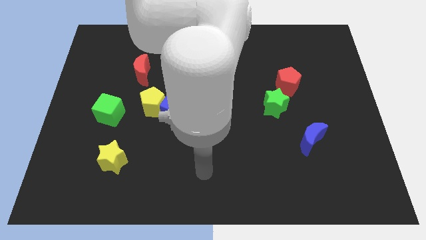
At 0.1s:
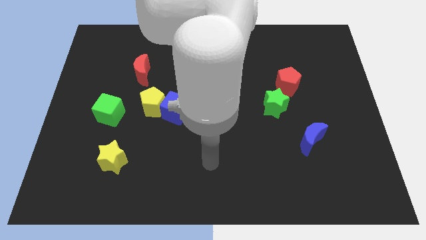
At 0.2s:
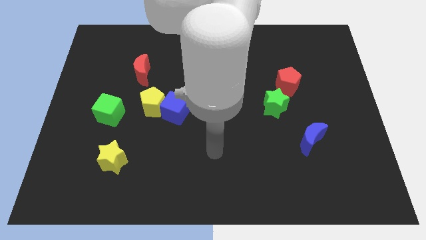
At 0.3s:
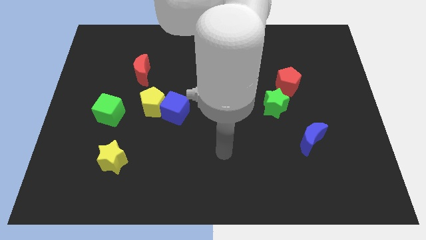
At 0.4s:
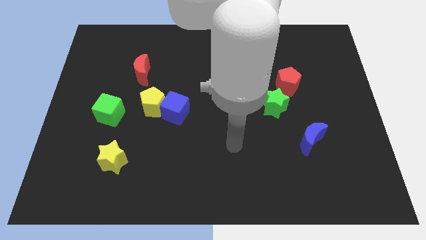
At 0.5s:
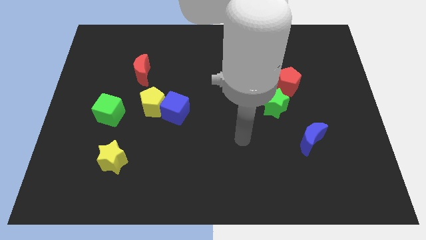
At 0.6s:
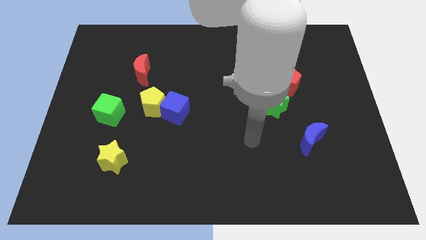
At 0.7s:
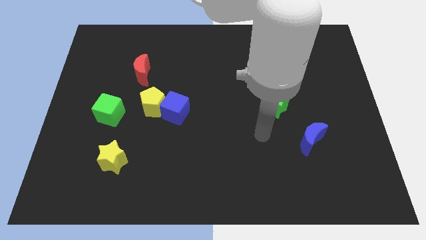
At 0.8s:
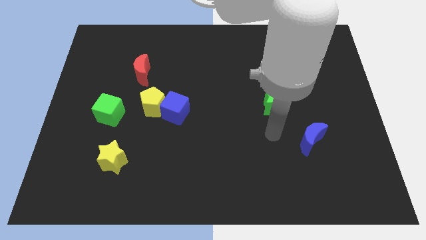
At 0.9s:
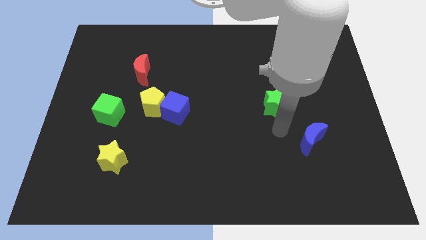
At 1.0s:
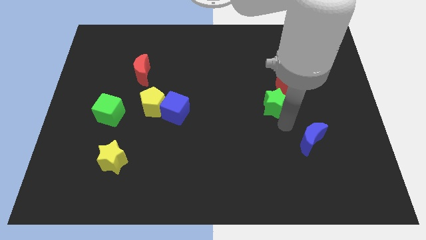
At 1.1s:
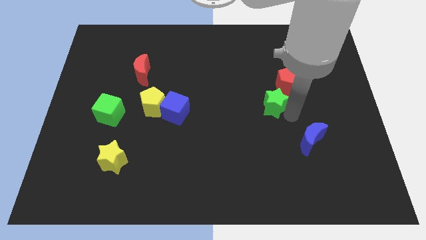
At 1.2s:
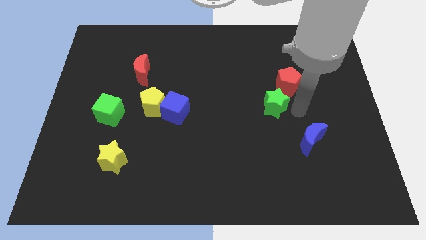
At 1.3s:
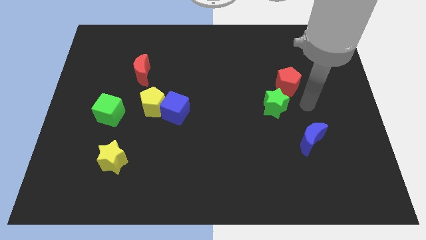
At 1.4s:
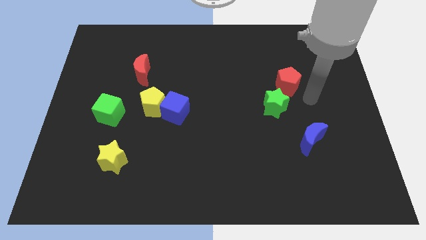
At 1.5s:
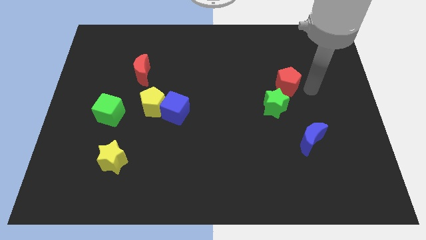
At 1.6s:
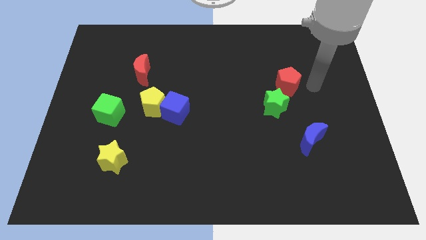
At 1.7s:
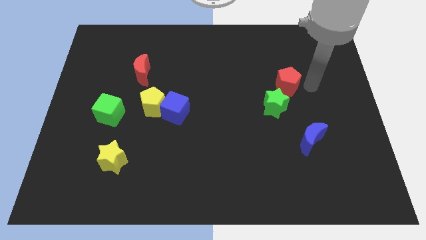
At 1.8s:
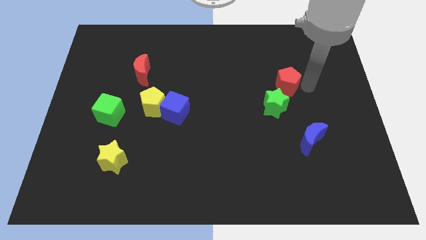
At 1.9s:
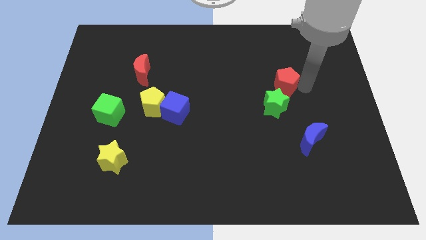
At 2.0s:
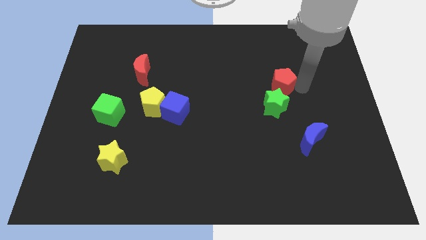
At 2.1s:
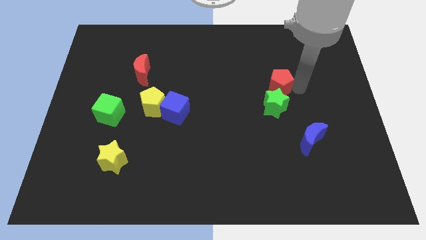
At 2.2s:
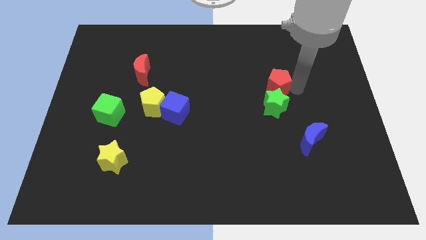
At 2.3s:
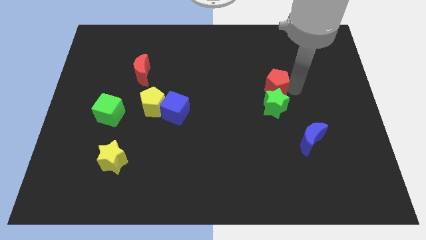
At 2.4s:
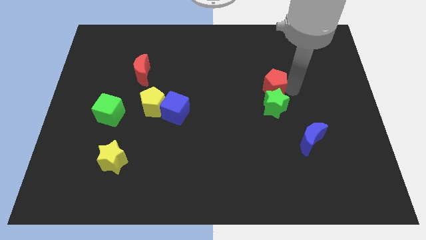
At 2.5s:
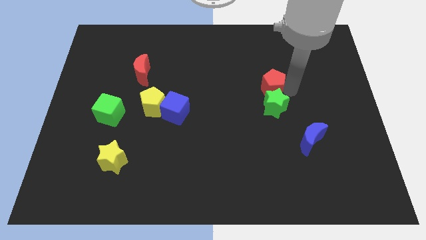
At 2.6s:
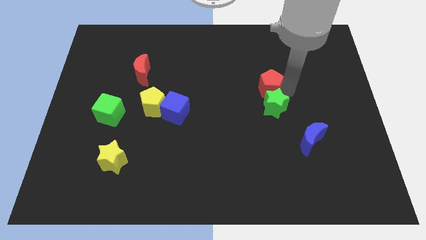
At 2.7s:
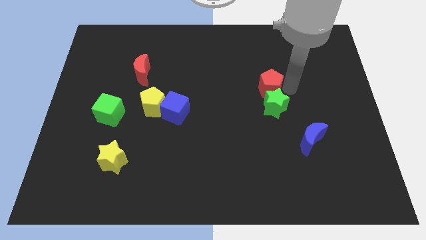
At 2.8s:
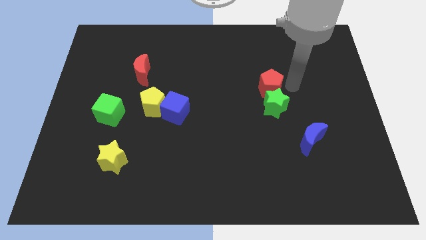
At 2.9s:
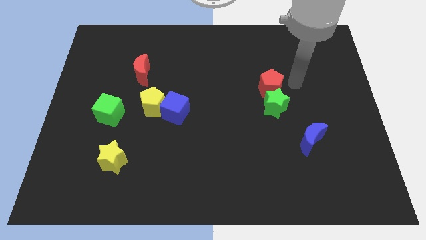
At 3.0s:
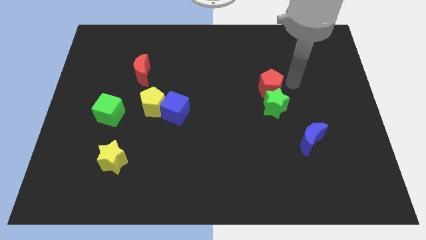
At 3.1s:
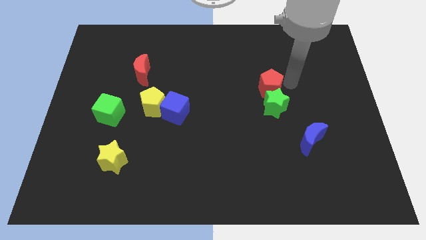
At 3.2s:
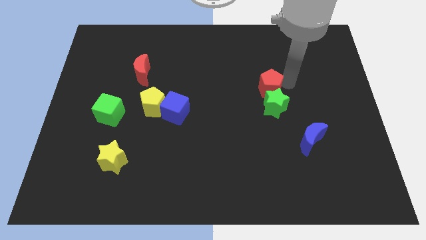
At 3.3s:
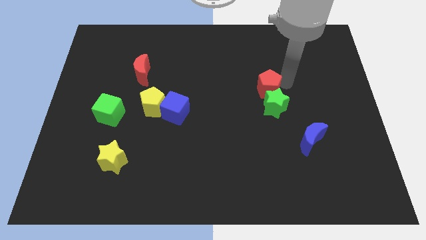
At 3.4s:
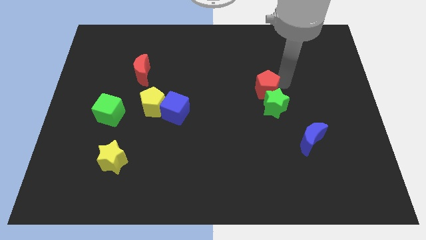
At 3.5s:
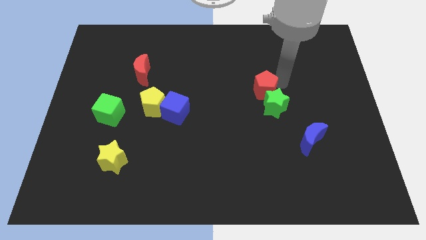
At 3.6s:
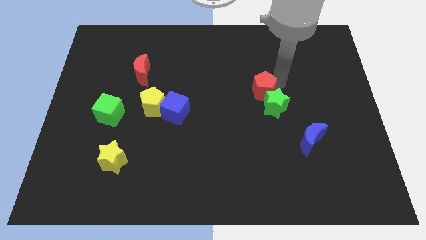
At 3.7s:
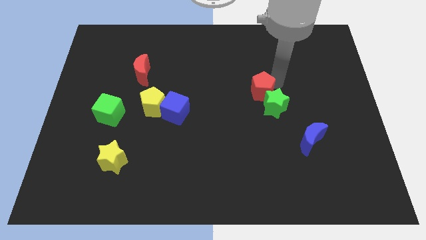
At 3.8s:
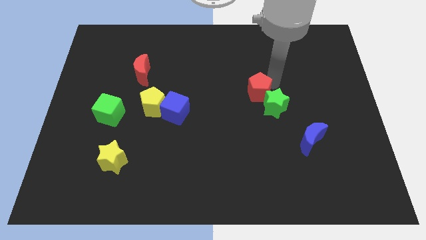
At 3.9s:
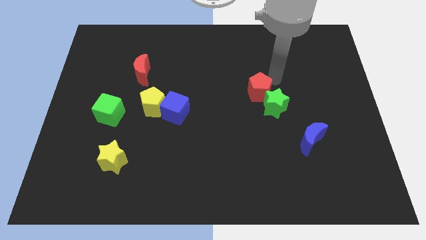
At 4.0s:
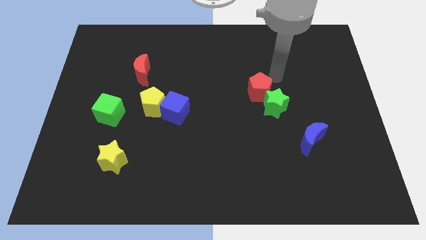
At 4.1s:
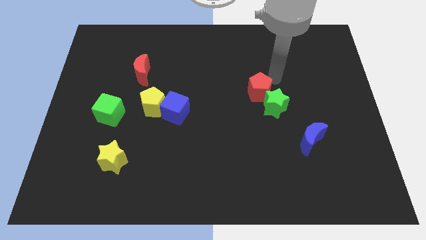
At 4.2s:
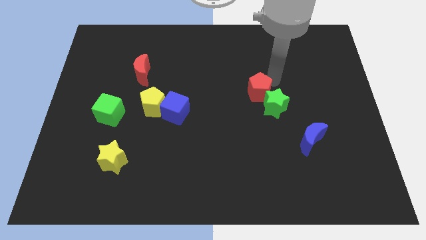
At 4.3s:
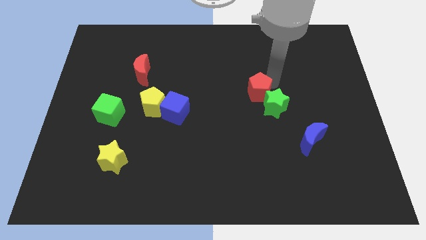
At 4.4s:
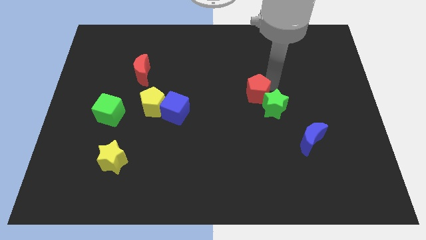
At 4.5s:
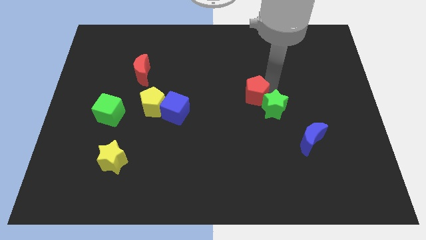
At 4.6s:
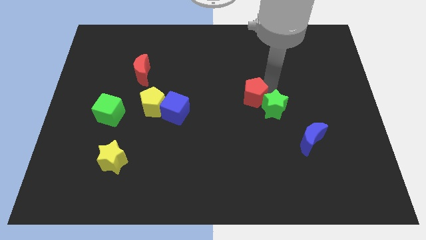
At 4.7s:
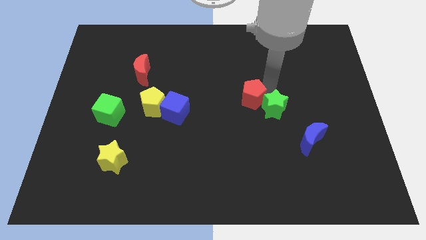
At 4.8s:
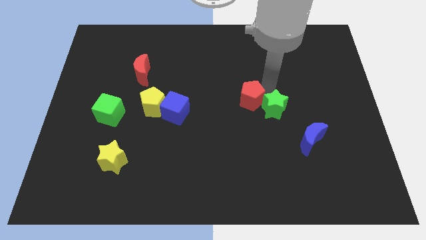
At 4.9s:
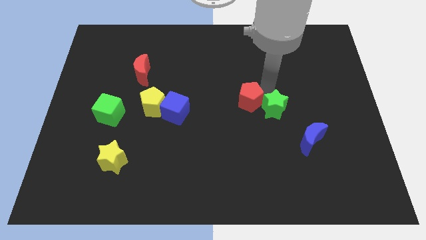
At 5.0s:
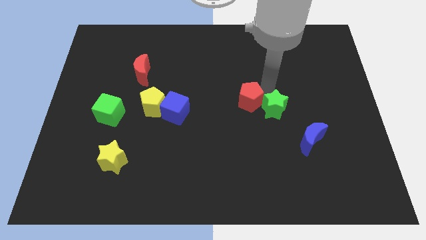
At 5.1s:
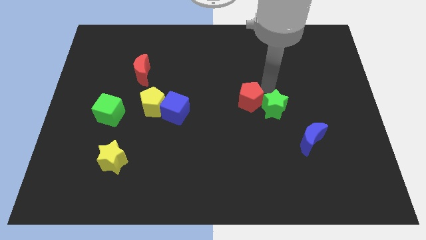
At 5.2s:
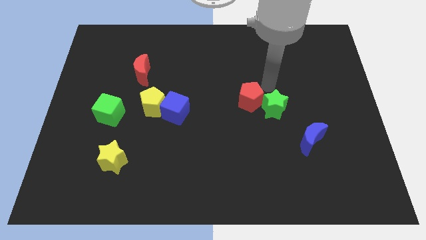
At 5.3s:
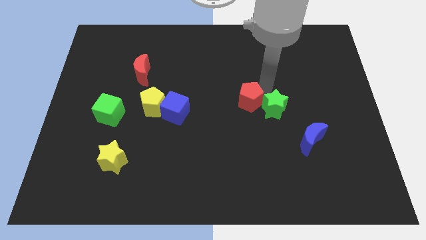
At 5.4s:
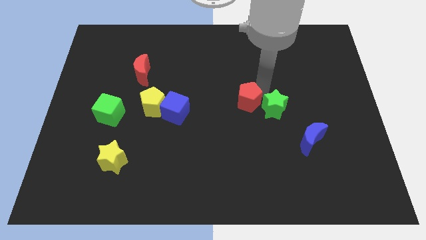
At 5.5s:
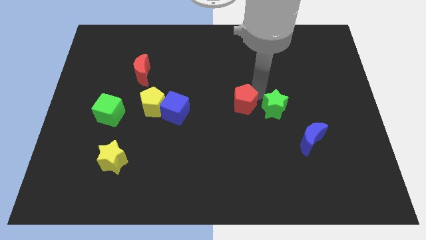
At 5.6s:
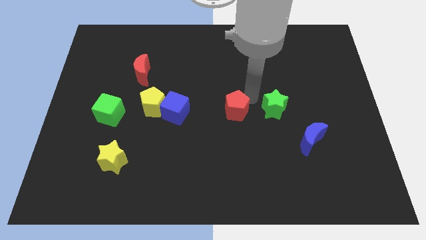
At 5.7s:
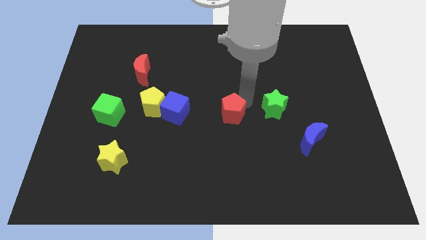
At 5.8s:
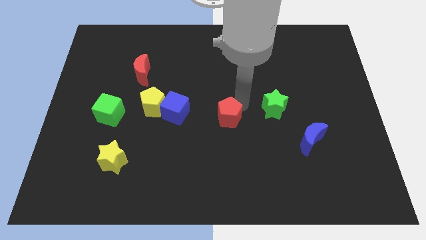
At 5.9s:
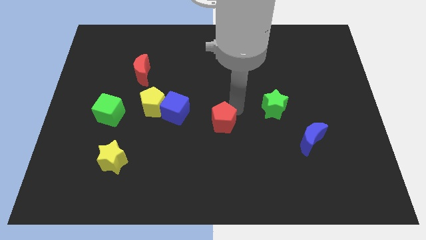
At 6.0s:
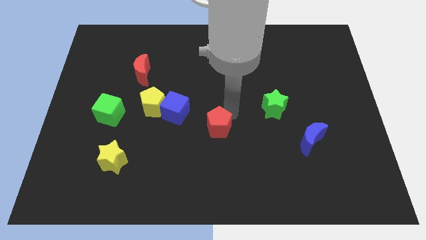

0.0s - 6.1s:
push the red pentagon downwards and then left

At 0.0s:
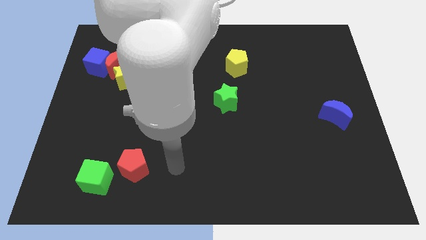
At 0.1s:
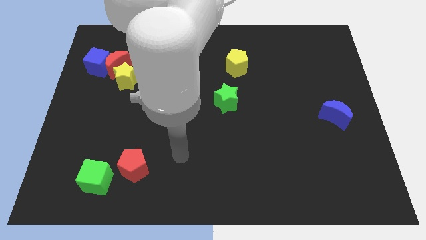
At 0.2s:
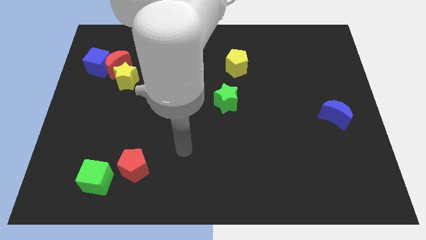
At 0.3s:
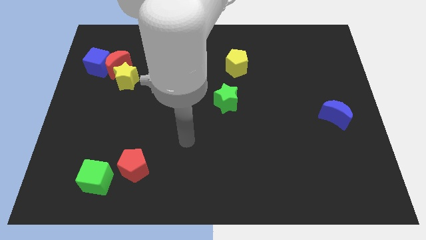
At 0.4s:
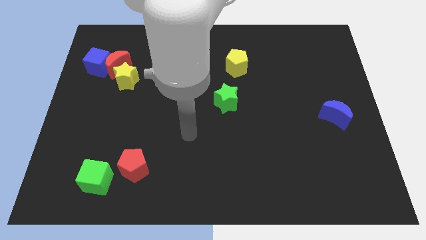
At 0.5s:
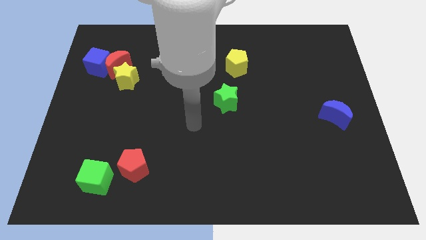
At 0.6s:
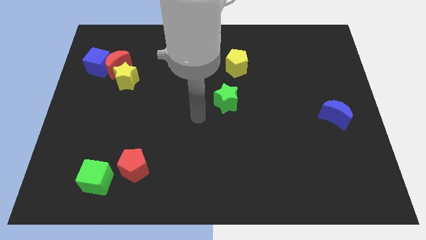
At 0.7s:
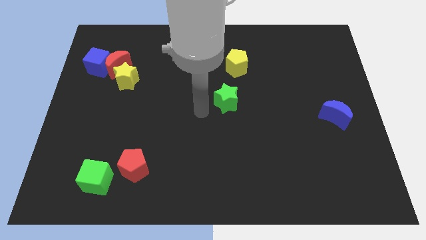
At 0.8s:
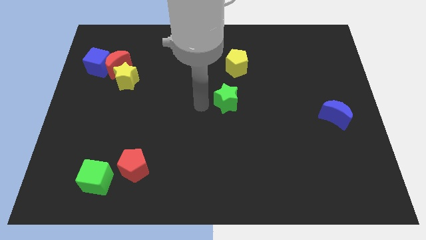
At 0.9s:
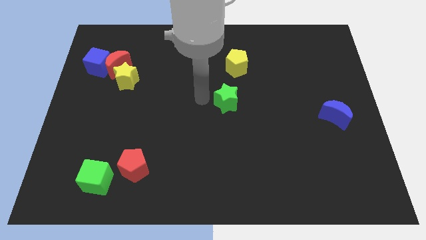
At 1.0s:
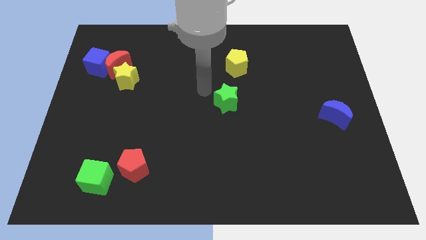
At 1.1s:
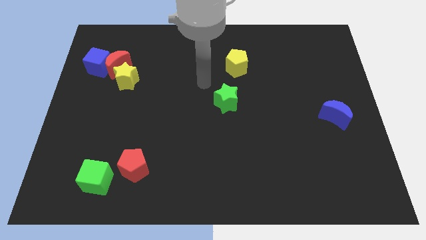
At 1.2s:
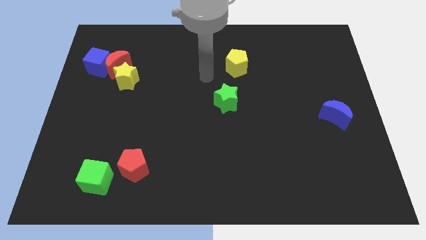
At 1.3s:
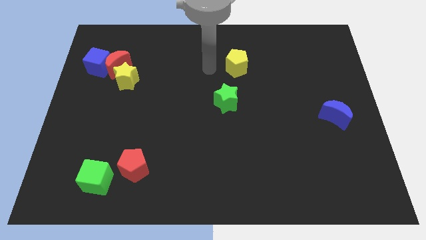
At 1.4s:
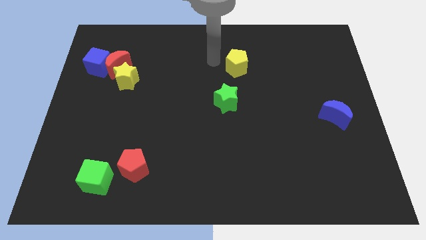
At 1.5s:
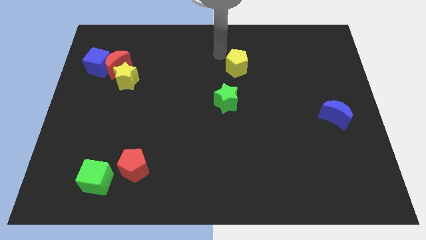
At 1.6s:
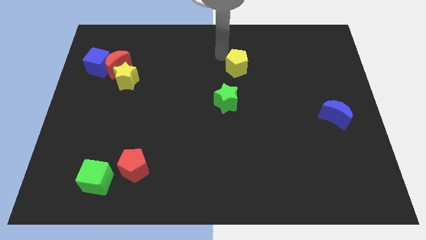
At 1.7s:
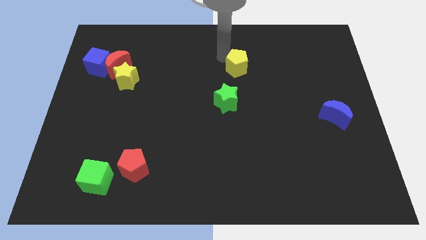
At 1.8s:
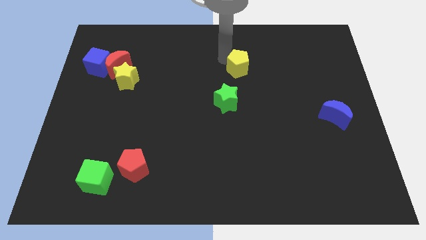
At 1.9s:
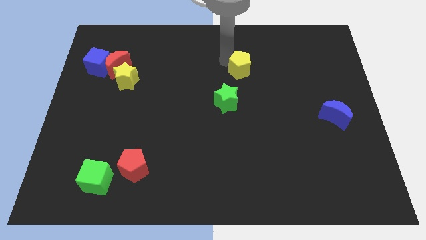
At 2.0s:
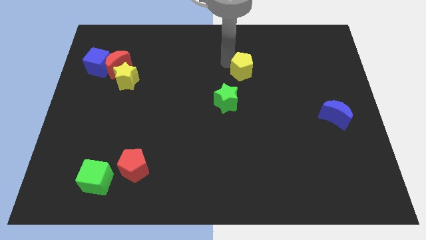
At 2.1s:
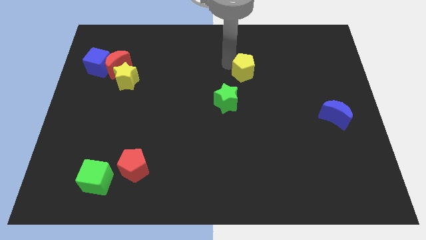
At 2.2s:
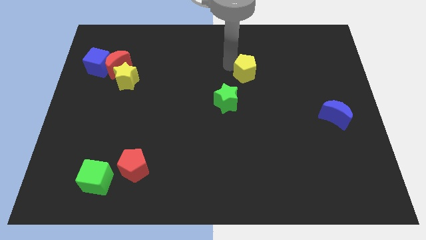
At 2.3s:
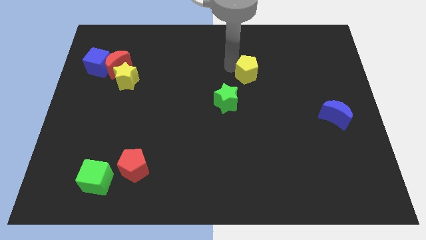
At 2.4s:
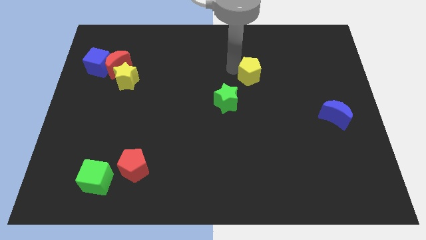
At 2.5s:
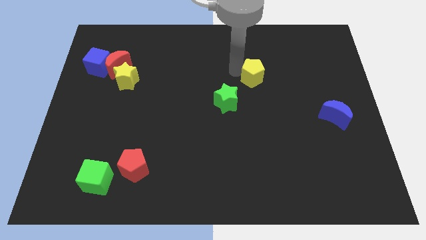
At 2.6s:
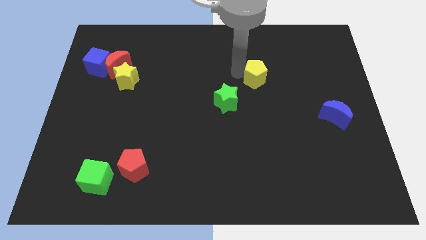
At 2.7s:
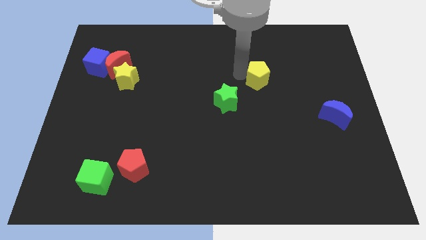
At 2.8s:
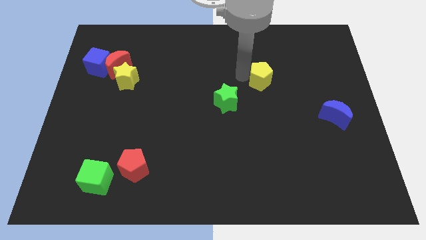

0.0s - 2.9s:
move the yellow pentagon downwards and to the right somewhat
